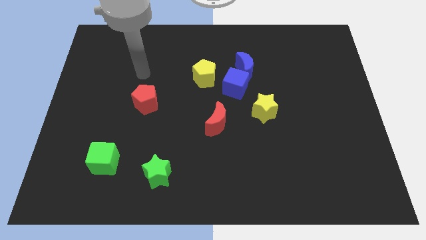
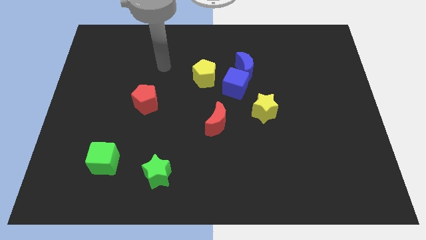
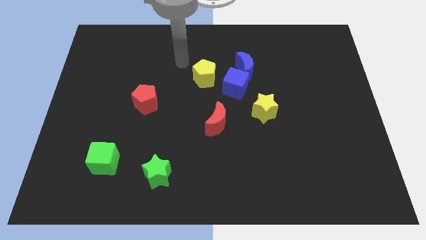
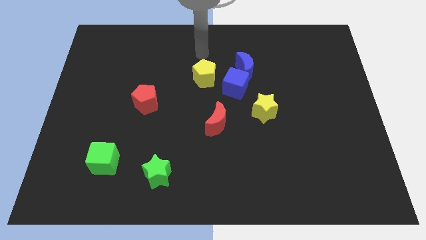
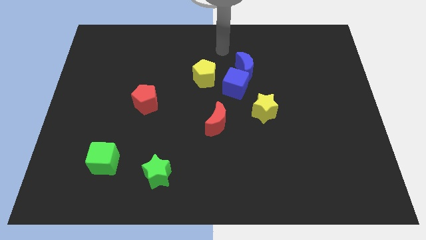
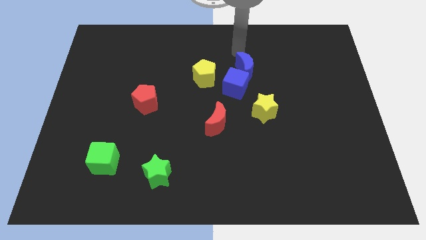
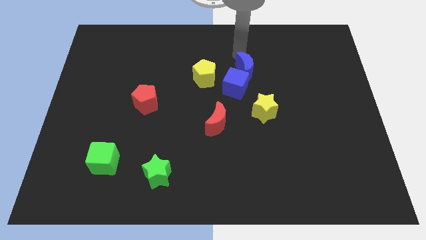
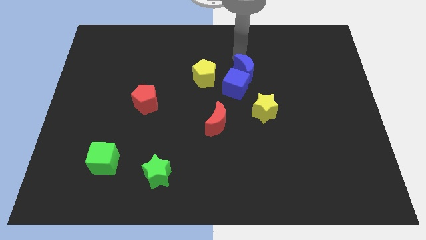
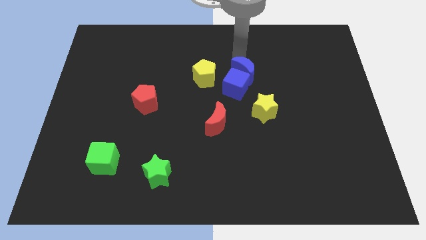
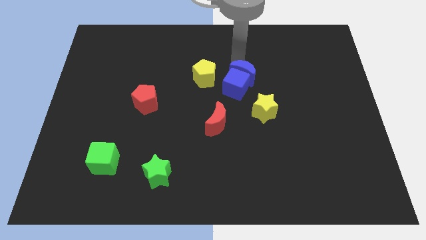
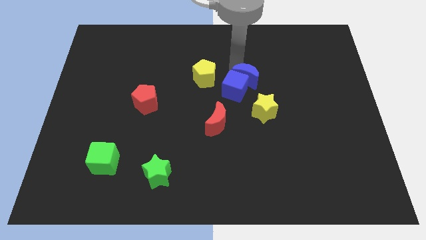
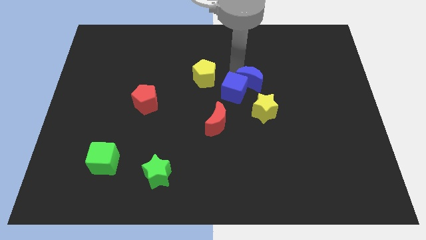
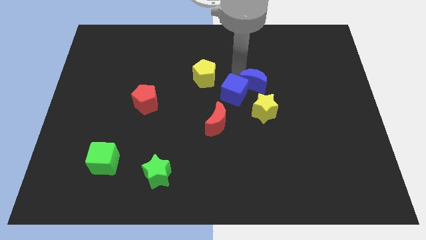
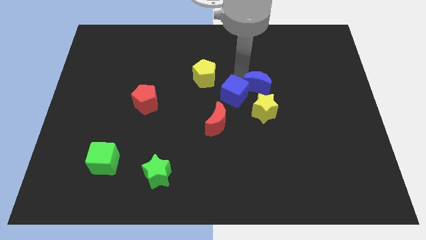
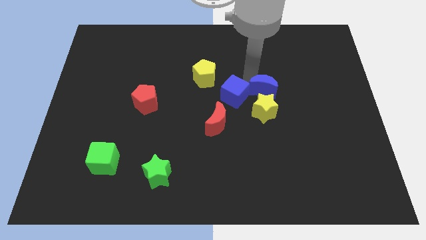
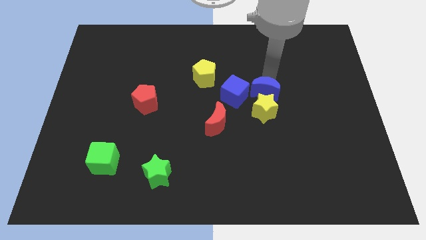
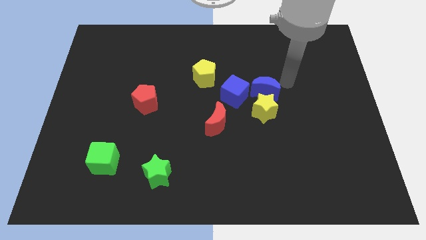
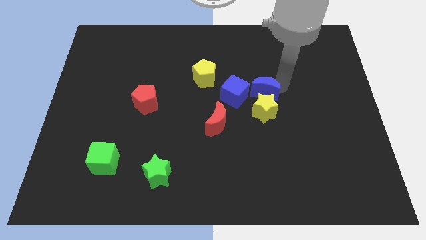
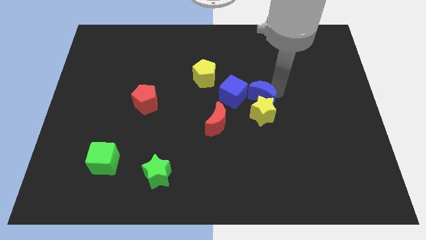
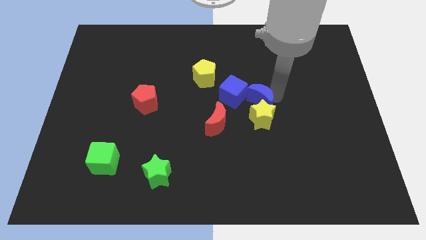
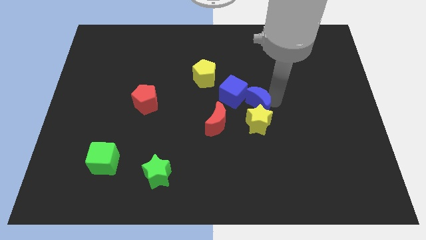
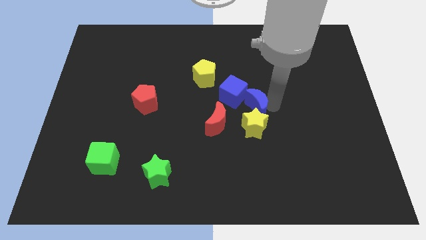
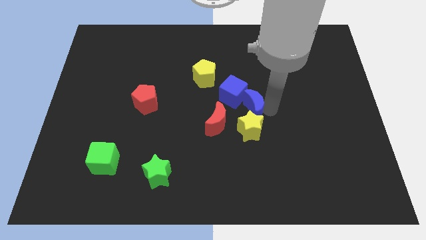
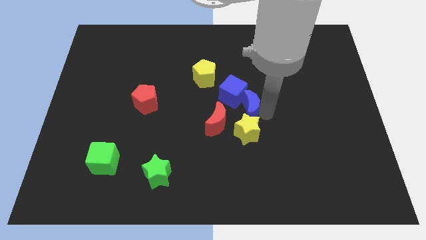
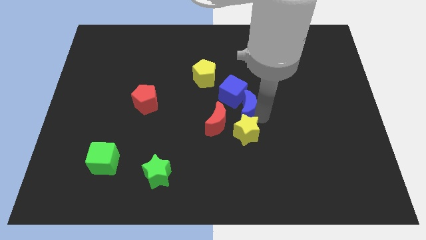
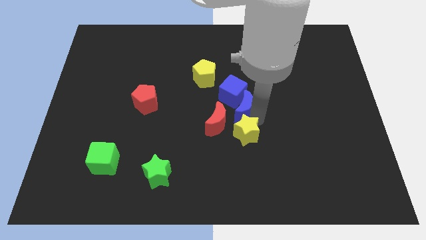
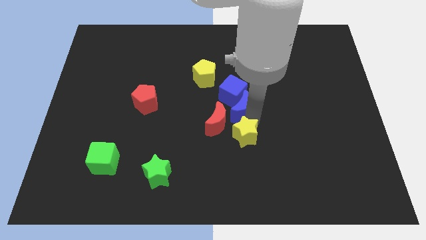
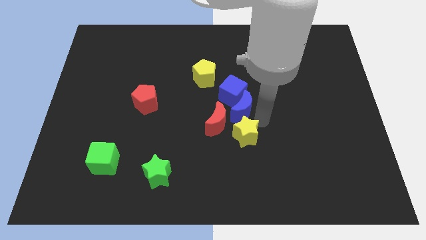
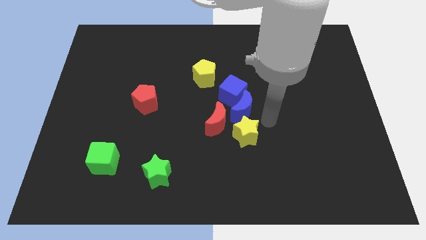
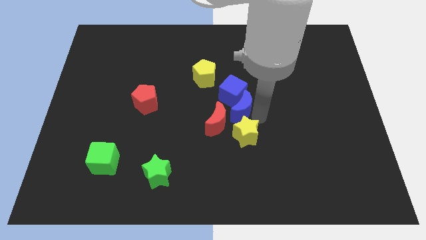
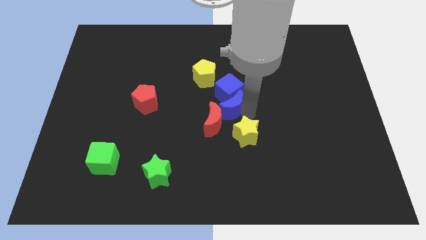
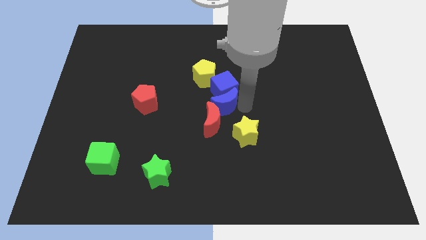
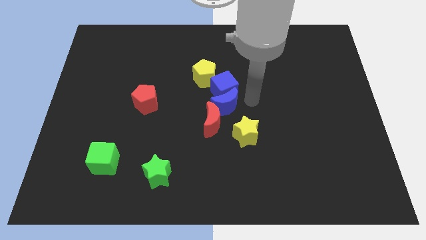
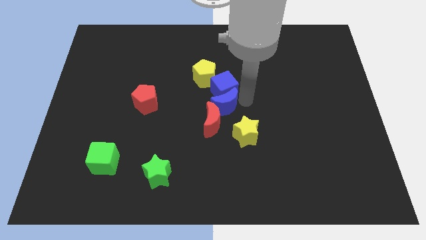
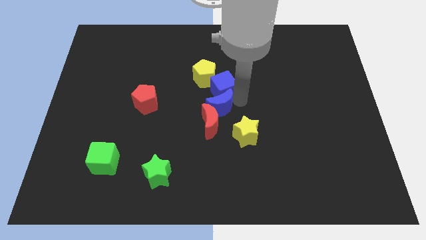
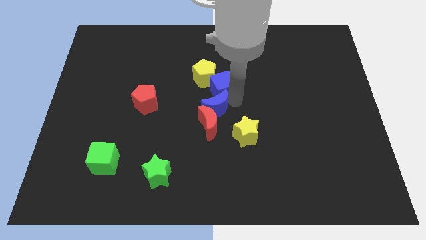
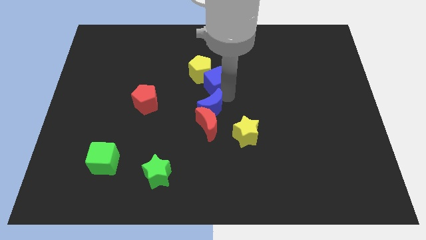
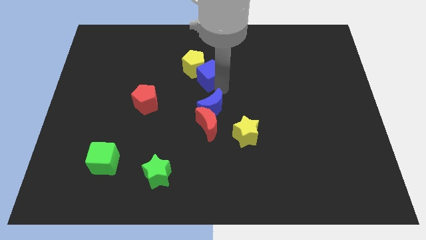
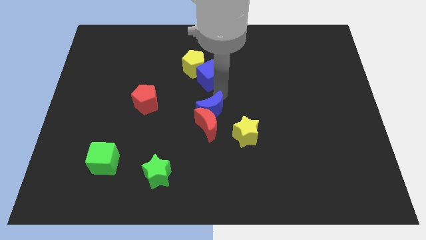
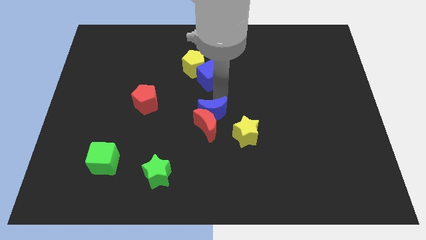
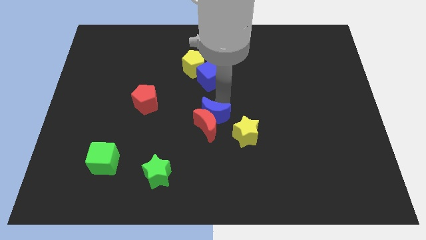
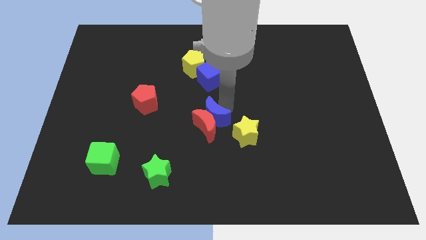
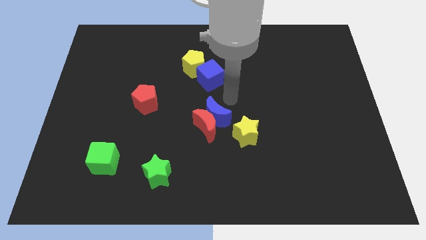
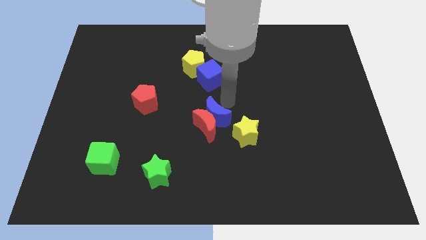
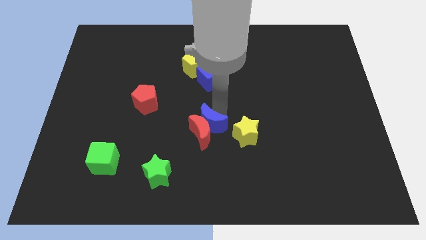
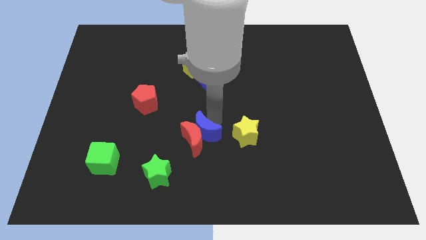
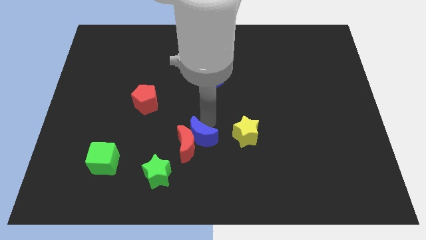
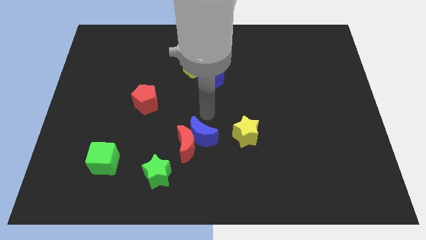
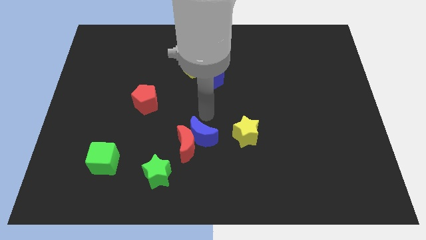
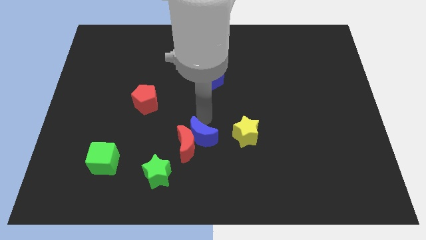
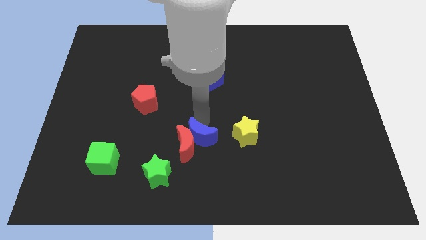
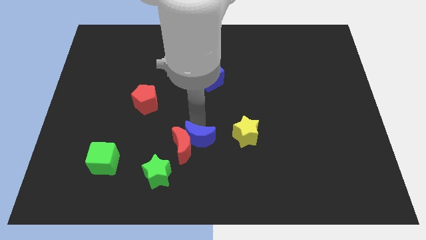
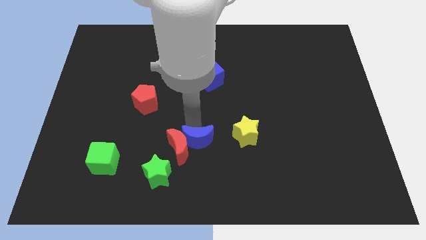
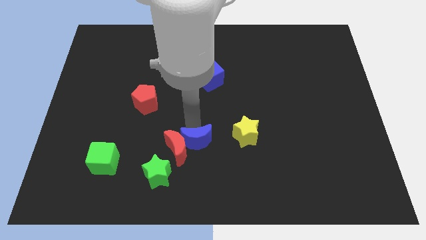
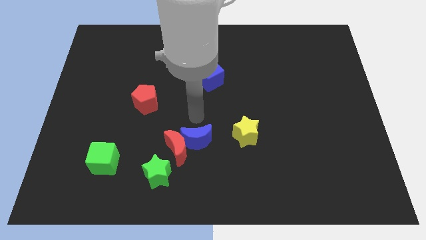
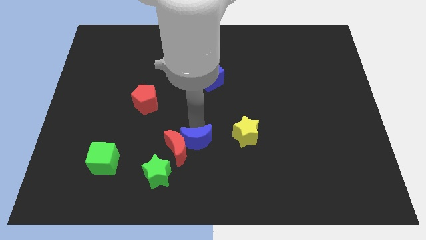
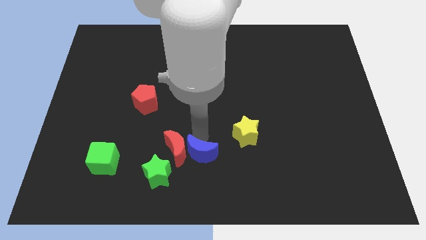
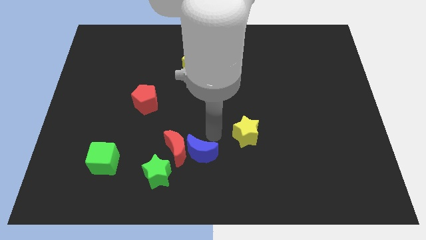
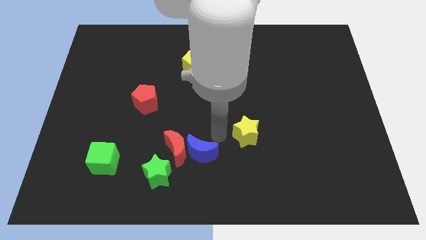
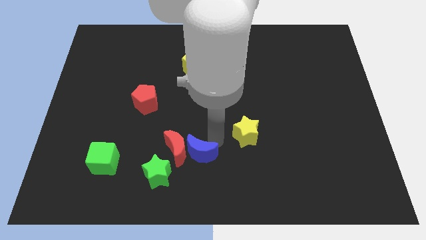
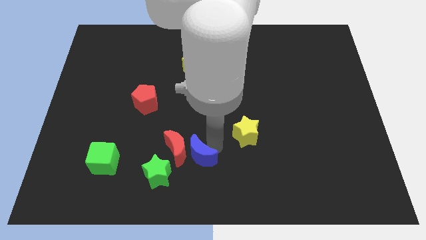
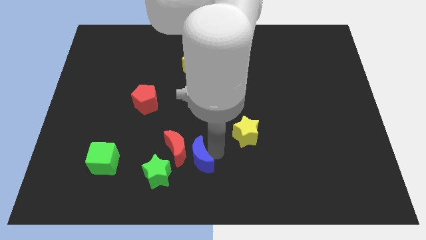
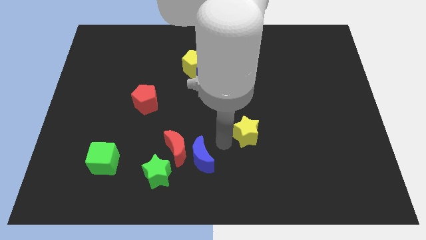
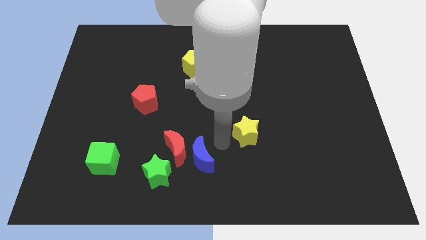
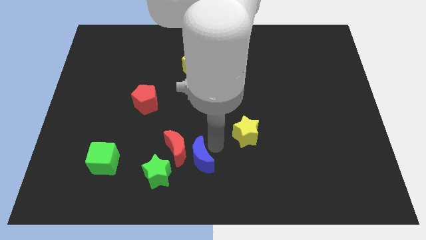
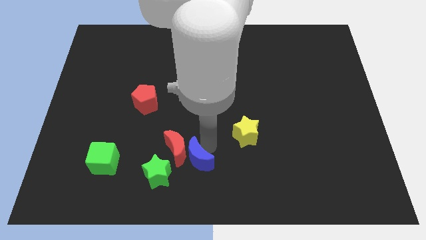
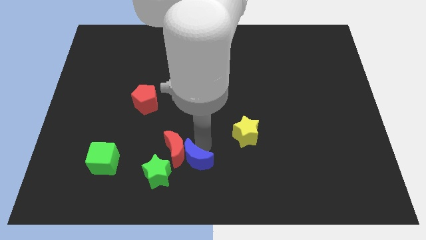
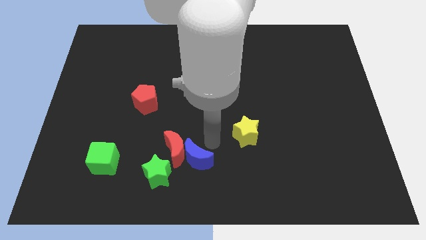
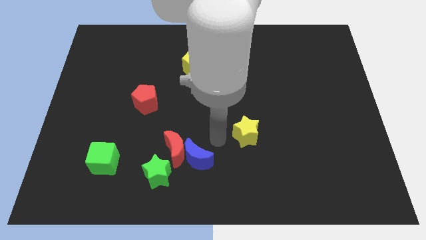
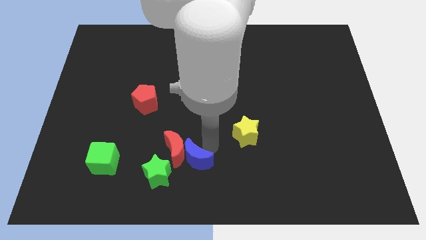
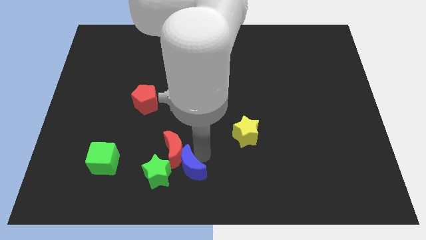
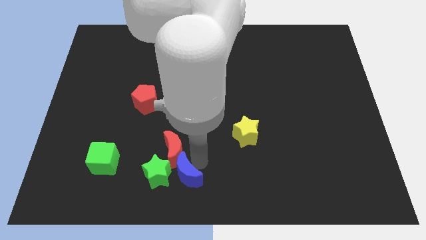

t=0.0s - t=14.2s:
move the blue moon to the green star

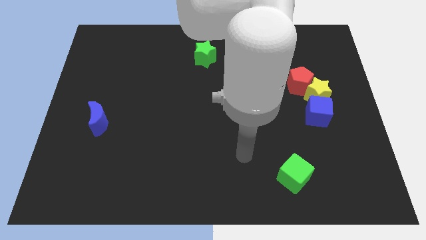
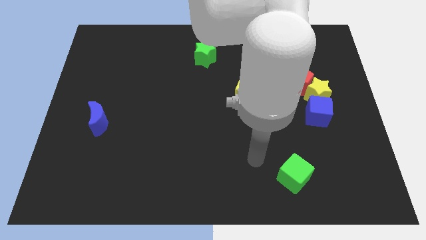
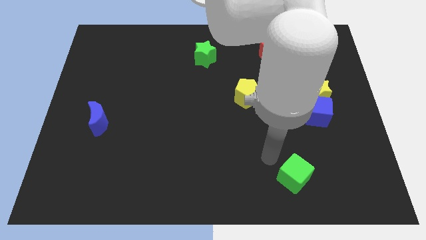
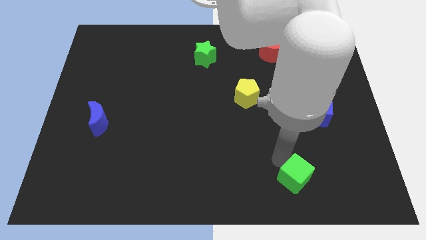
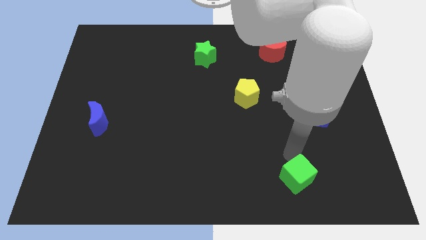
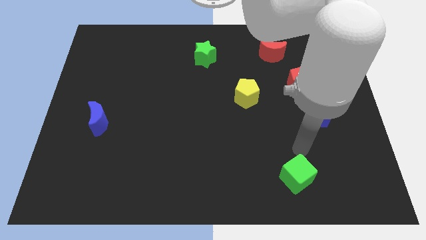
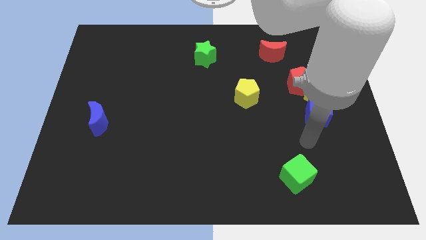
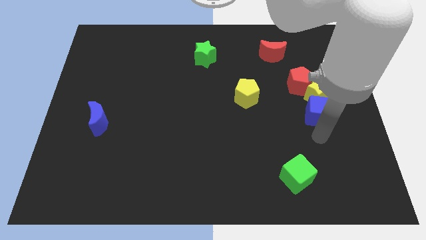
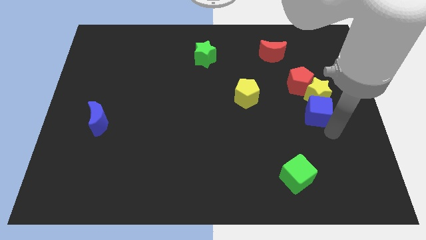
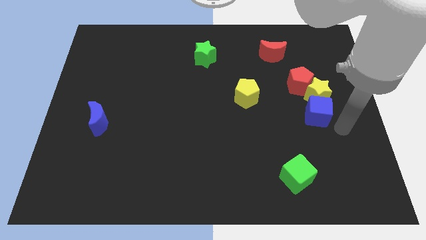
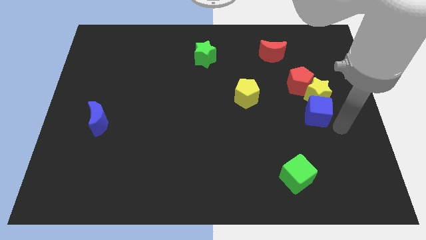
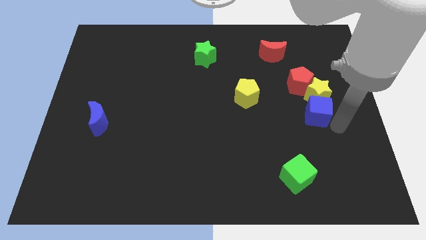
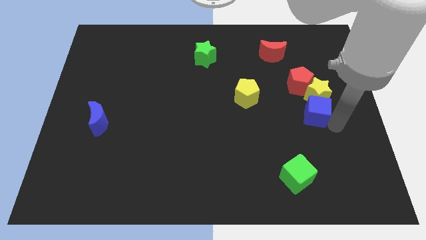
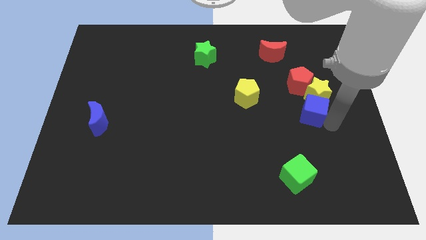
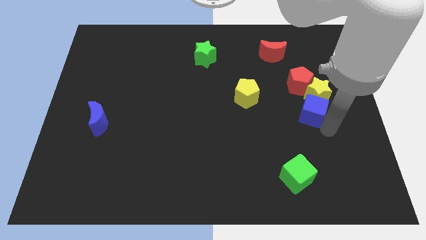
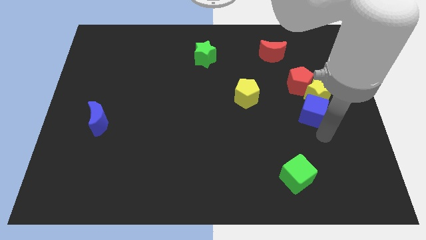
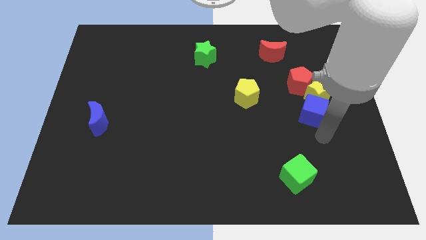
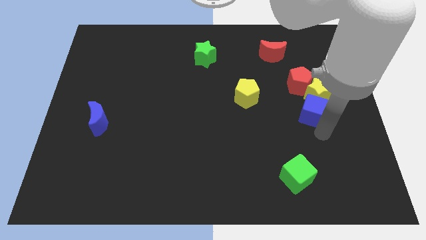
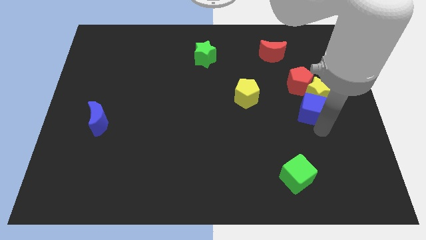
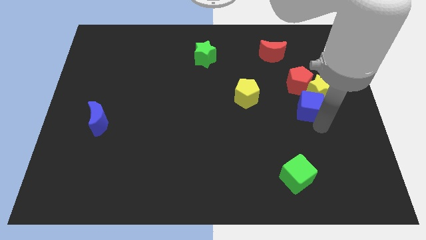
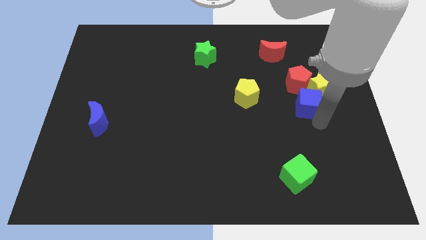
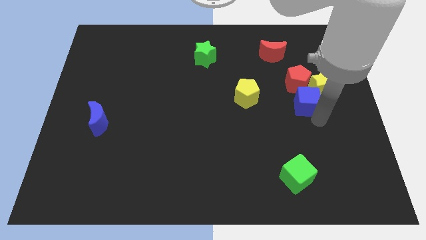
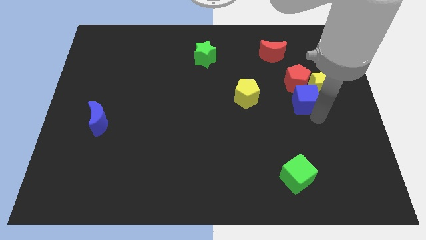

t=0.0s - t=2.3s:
move the blue cube to the red pentagon
